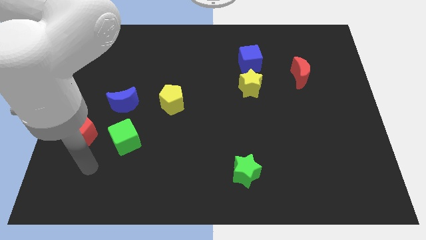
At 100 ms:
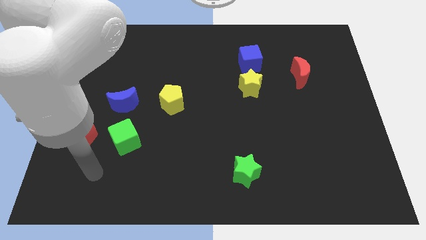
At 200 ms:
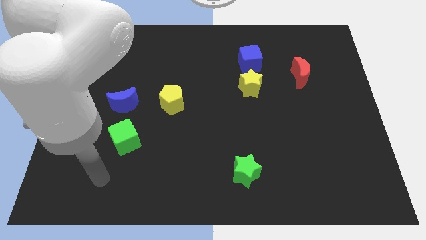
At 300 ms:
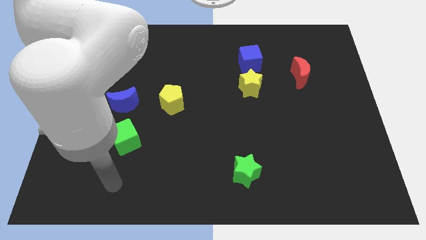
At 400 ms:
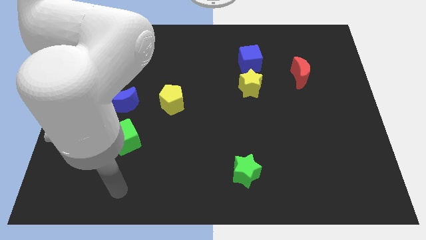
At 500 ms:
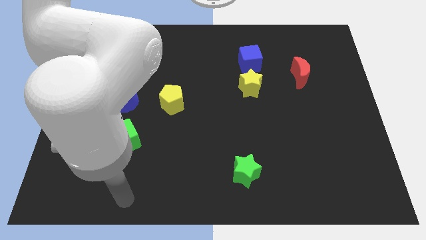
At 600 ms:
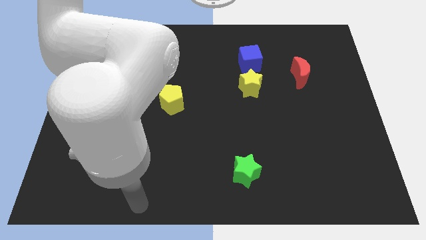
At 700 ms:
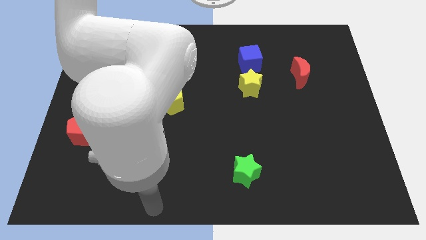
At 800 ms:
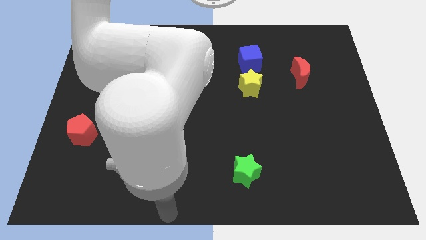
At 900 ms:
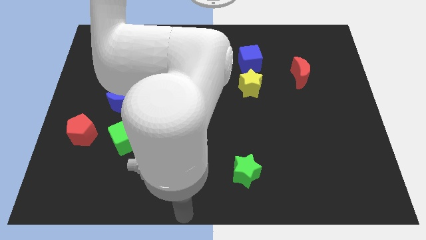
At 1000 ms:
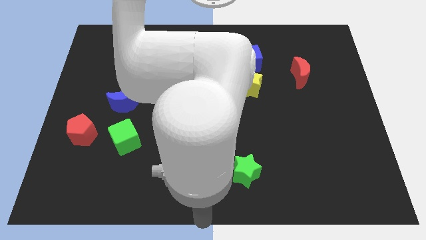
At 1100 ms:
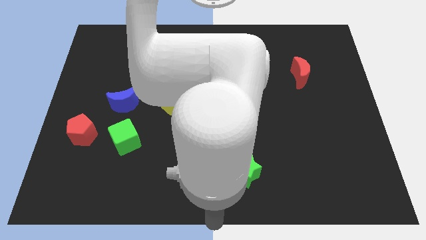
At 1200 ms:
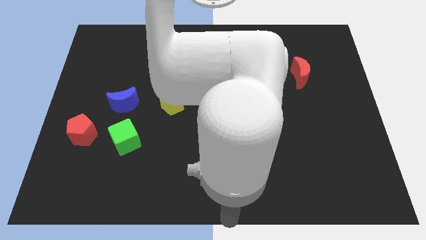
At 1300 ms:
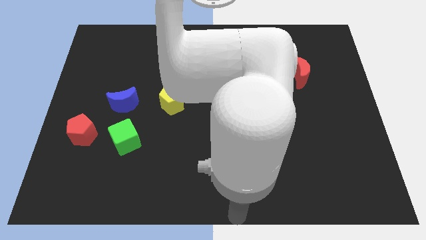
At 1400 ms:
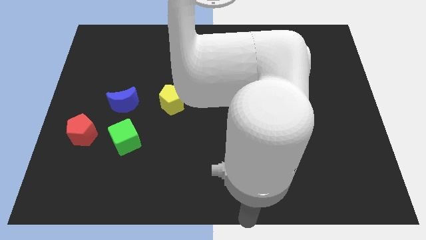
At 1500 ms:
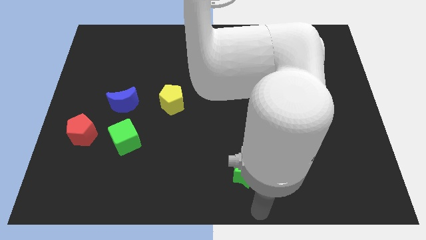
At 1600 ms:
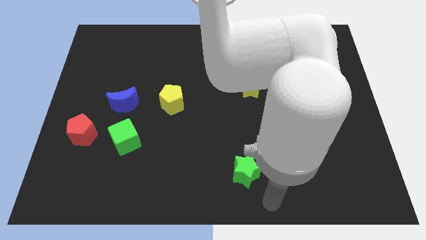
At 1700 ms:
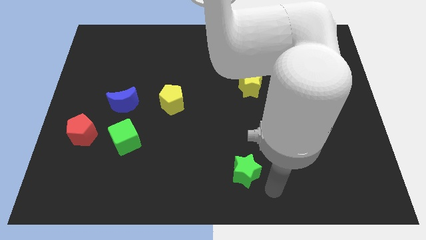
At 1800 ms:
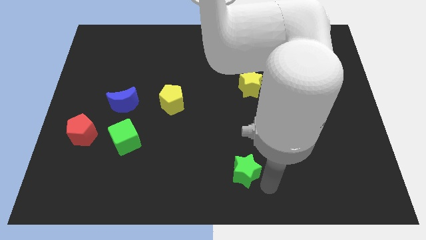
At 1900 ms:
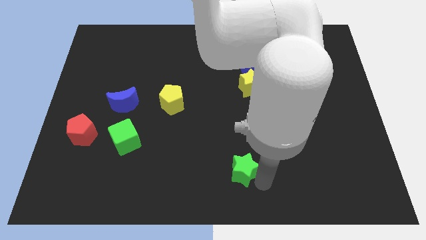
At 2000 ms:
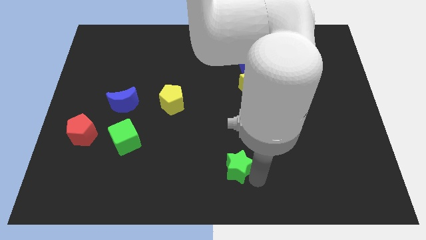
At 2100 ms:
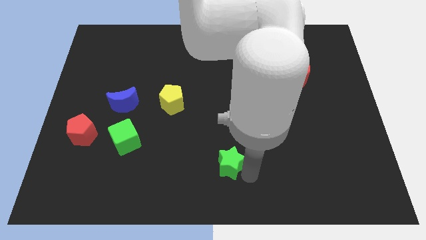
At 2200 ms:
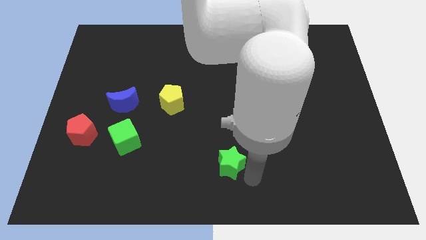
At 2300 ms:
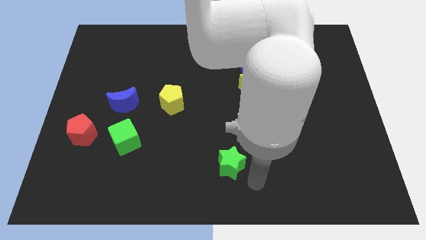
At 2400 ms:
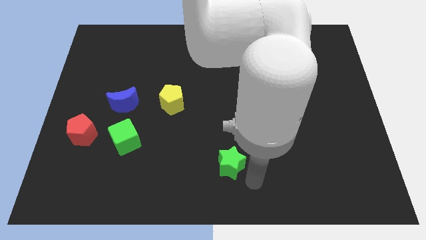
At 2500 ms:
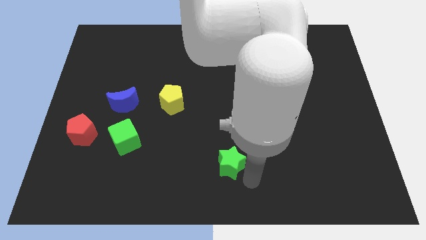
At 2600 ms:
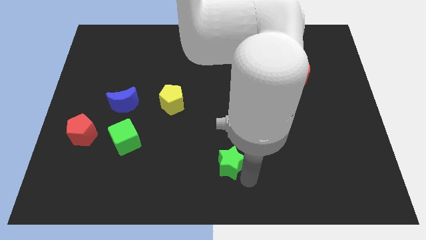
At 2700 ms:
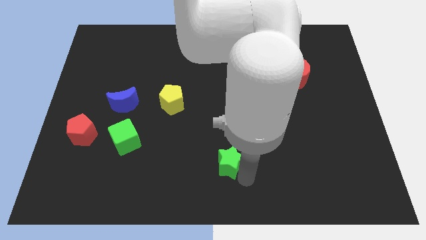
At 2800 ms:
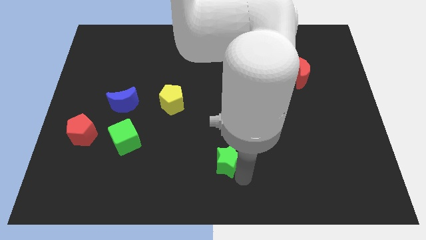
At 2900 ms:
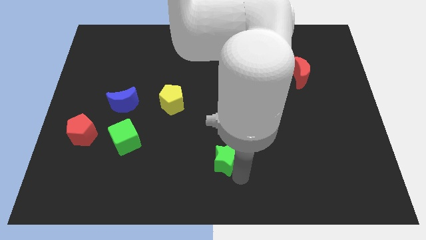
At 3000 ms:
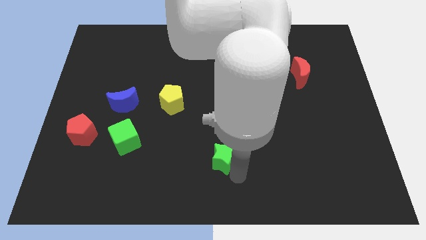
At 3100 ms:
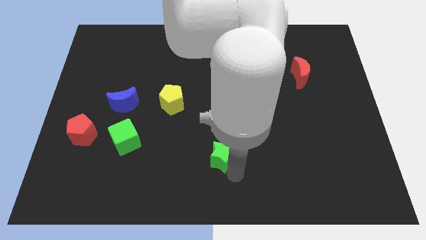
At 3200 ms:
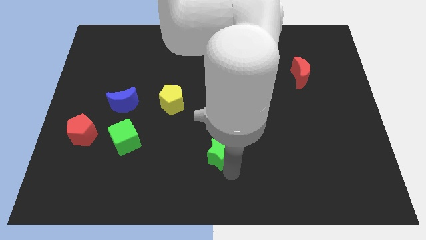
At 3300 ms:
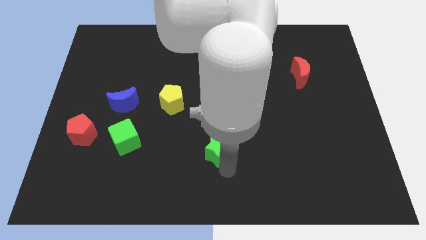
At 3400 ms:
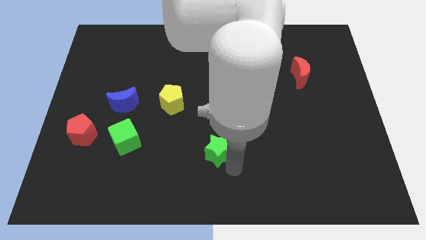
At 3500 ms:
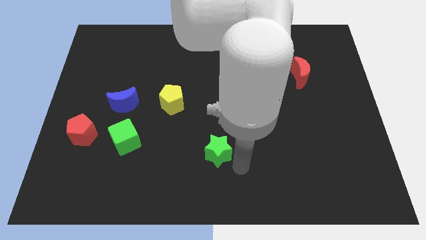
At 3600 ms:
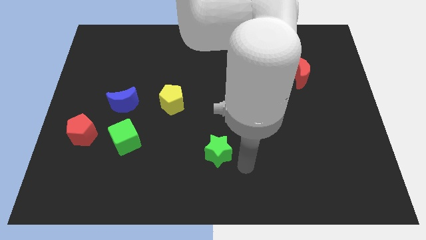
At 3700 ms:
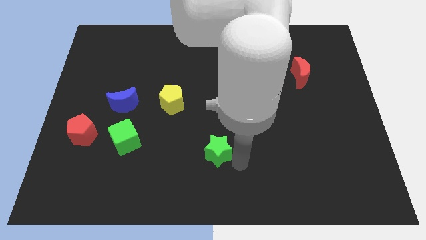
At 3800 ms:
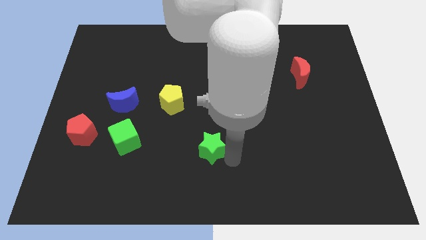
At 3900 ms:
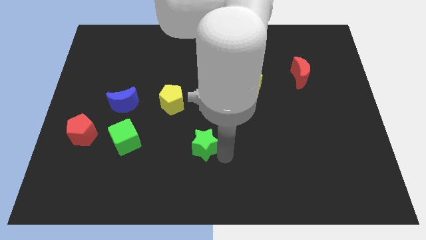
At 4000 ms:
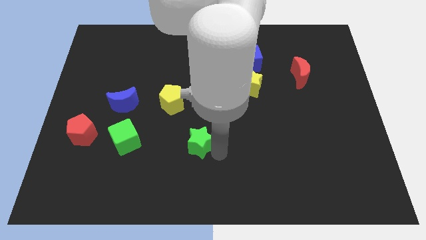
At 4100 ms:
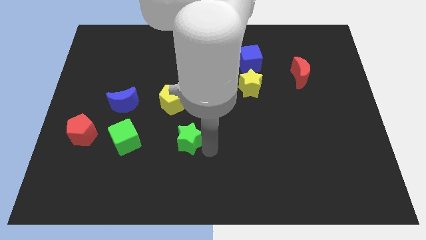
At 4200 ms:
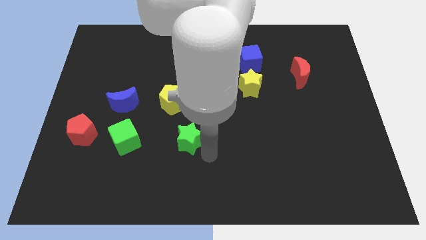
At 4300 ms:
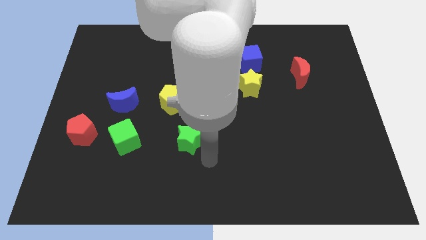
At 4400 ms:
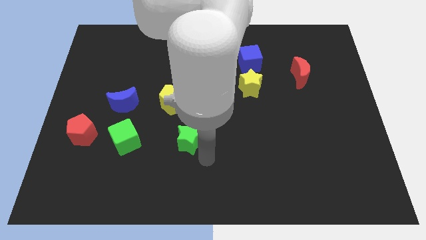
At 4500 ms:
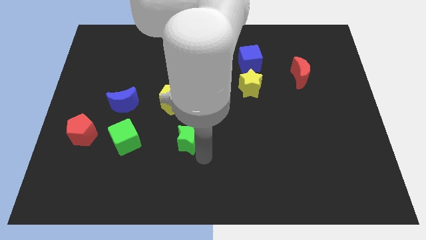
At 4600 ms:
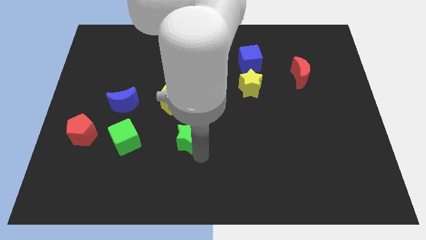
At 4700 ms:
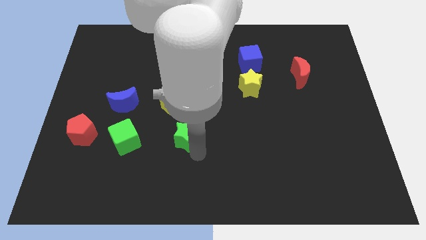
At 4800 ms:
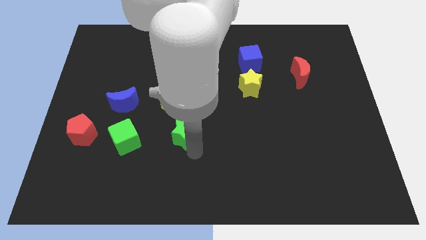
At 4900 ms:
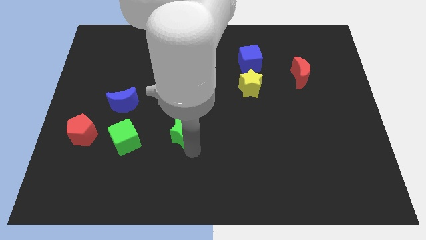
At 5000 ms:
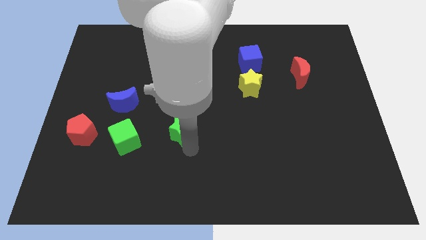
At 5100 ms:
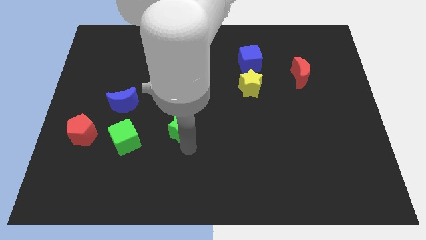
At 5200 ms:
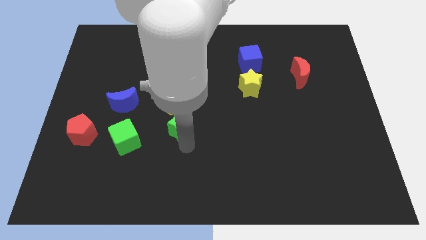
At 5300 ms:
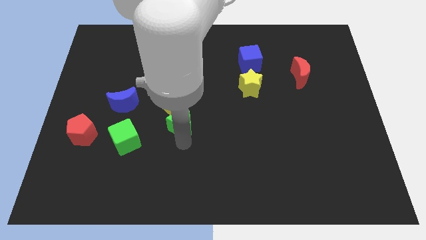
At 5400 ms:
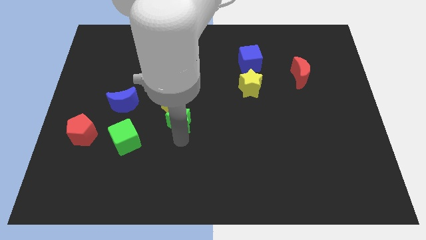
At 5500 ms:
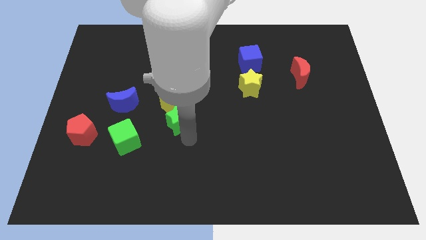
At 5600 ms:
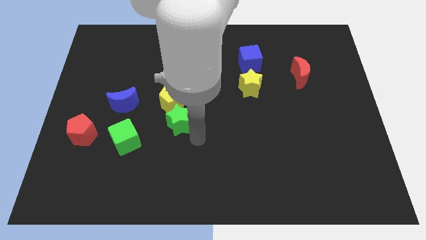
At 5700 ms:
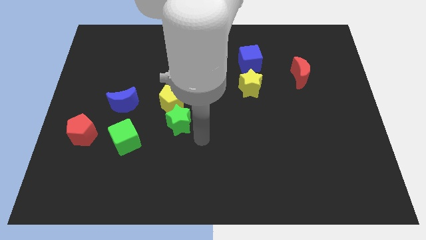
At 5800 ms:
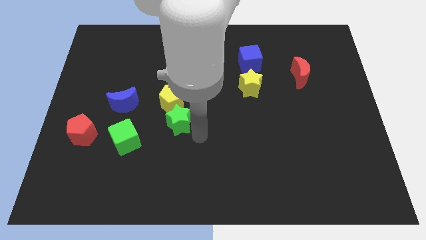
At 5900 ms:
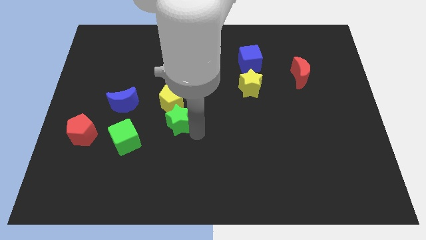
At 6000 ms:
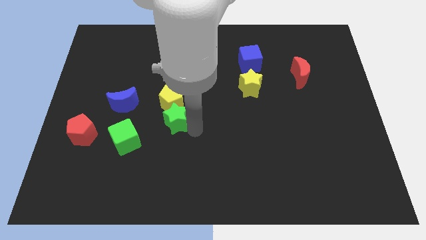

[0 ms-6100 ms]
slide the green star diagonally up and left

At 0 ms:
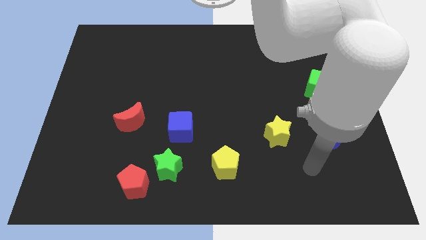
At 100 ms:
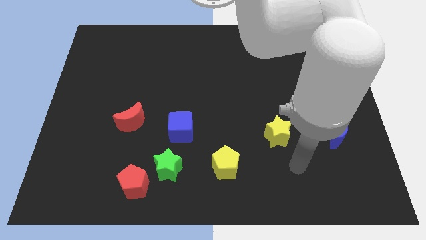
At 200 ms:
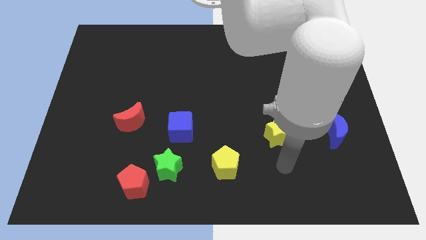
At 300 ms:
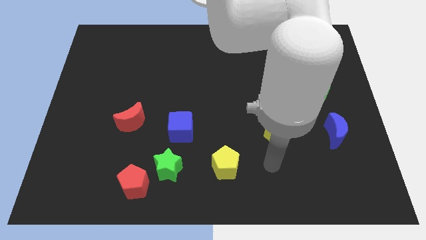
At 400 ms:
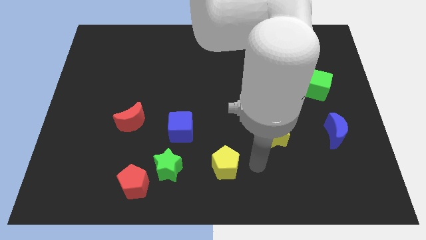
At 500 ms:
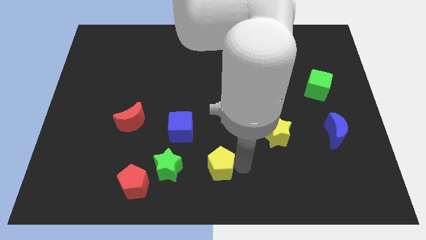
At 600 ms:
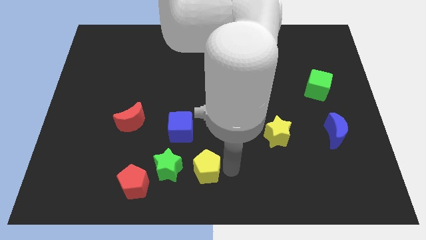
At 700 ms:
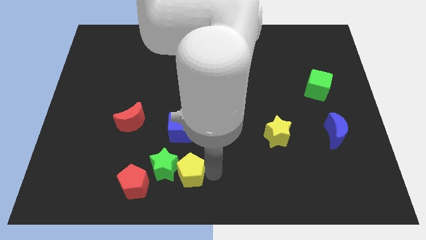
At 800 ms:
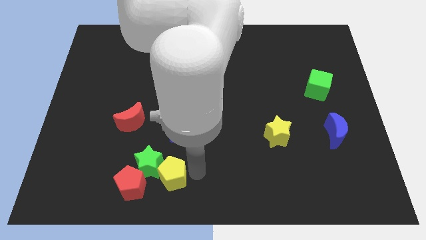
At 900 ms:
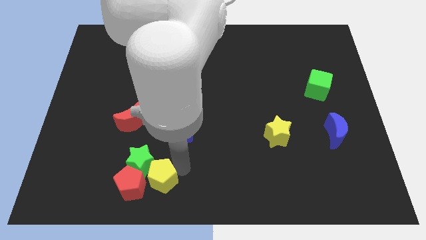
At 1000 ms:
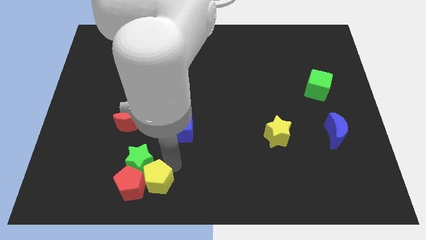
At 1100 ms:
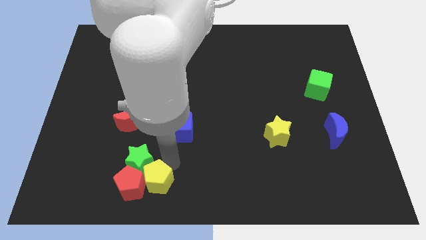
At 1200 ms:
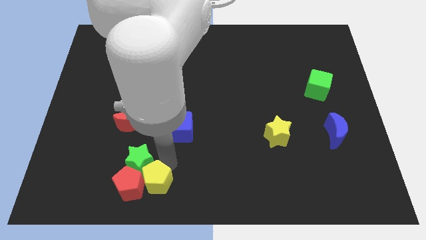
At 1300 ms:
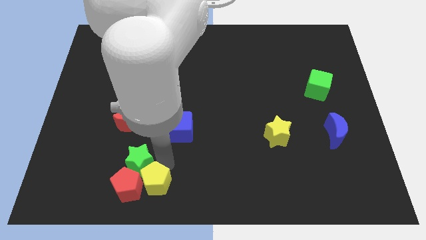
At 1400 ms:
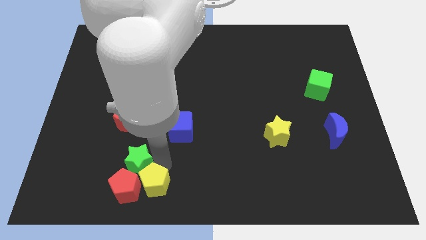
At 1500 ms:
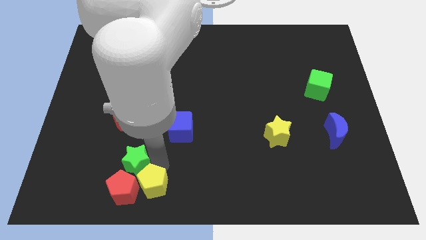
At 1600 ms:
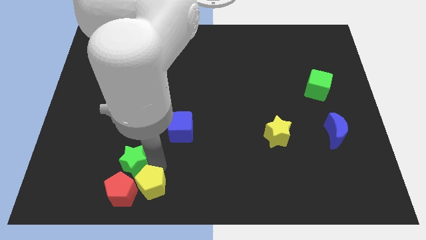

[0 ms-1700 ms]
move the green star left a little bit

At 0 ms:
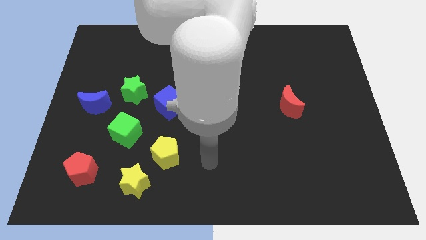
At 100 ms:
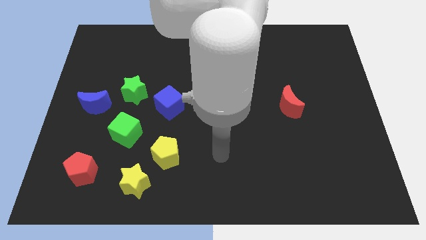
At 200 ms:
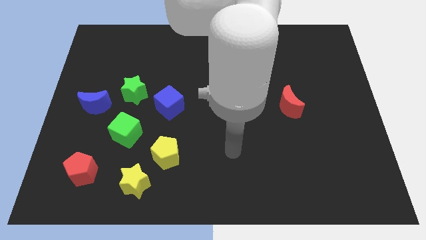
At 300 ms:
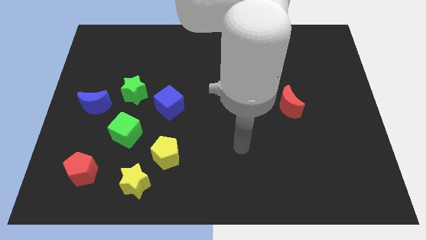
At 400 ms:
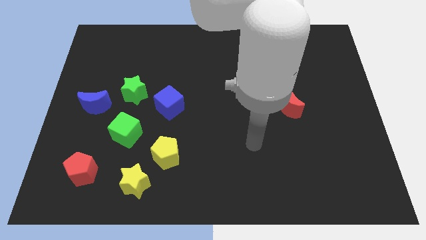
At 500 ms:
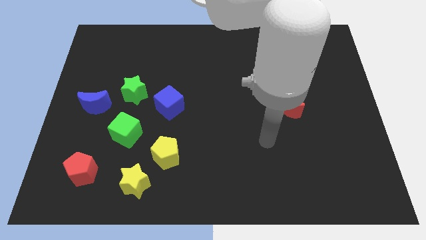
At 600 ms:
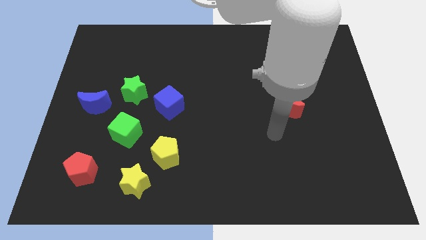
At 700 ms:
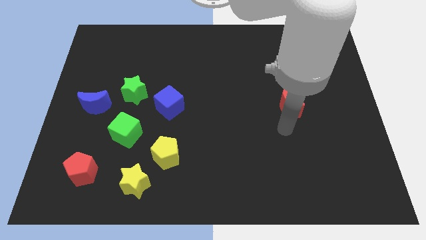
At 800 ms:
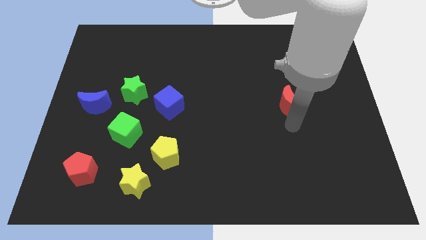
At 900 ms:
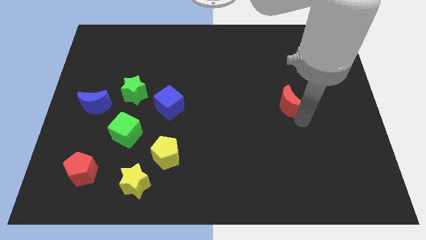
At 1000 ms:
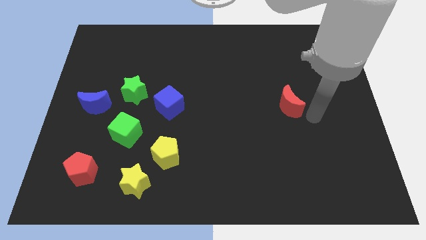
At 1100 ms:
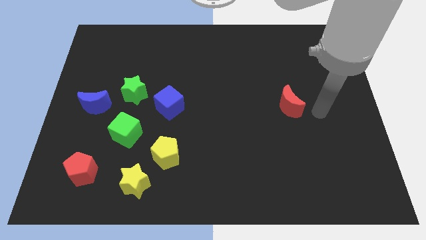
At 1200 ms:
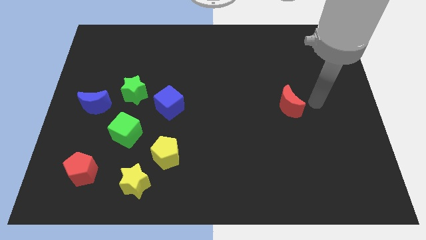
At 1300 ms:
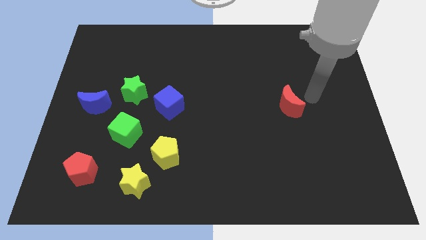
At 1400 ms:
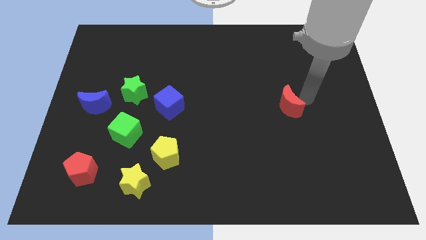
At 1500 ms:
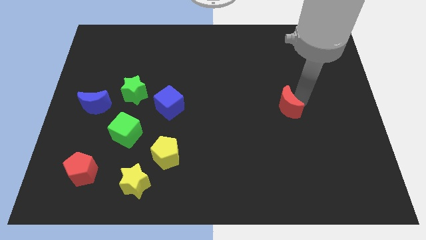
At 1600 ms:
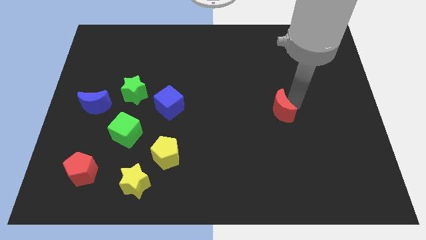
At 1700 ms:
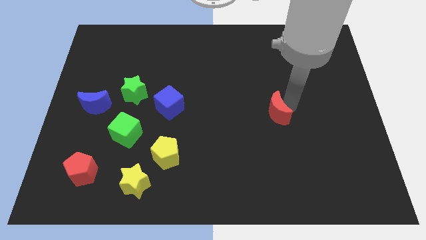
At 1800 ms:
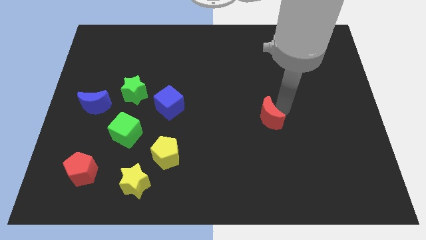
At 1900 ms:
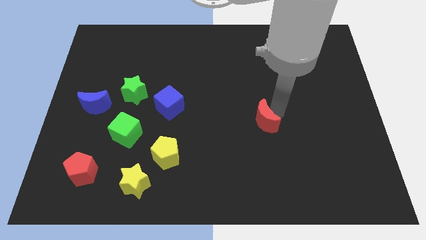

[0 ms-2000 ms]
move the red moon downwards and to the left diagonally slightly
